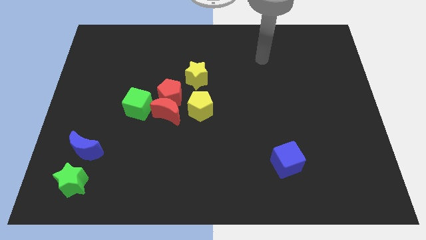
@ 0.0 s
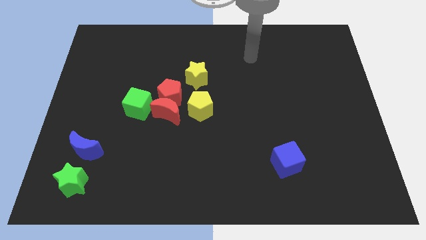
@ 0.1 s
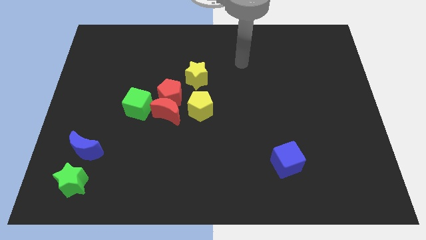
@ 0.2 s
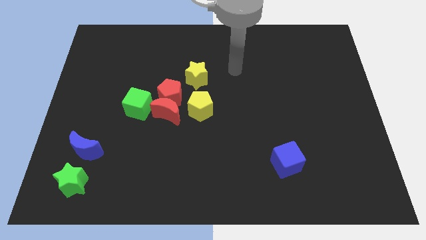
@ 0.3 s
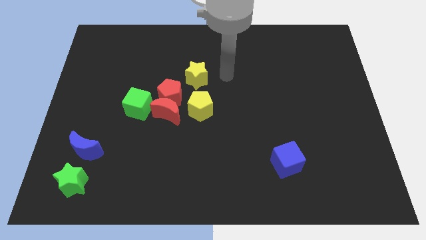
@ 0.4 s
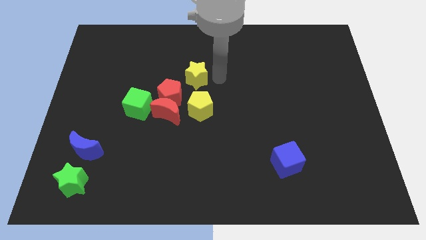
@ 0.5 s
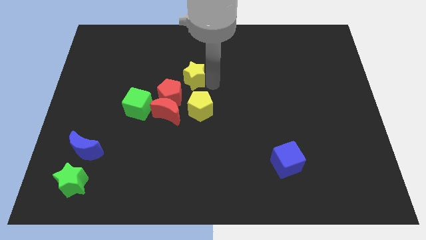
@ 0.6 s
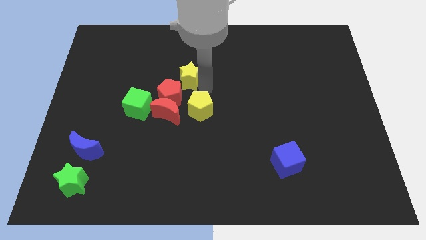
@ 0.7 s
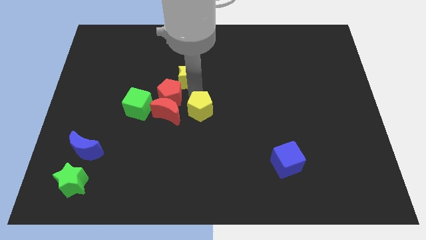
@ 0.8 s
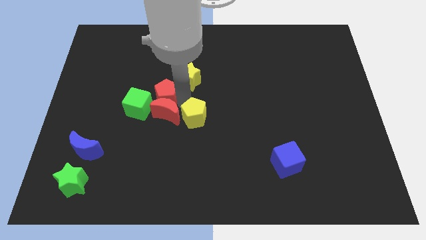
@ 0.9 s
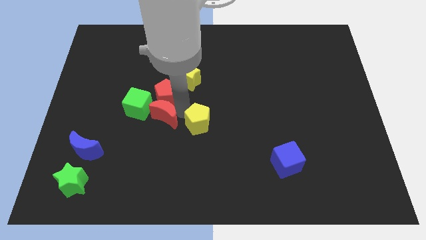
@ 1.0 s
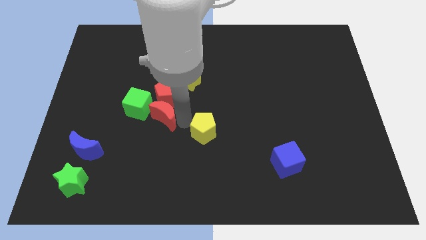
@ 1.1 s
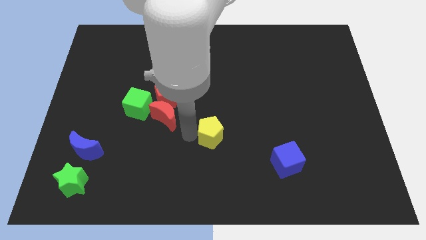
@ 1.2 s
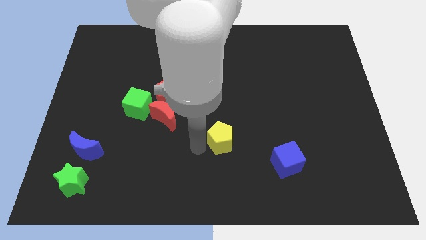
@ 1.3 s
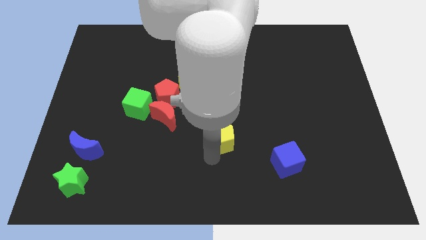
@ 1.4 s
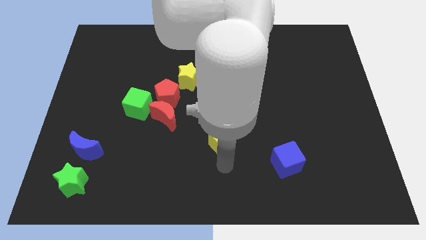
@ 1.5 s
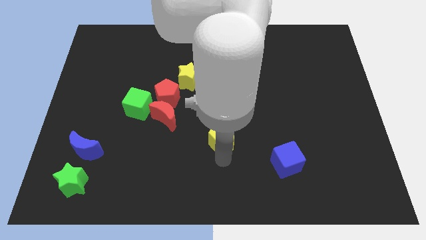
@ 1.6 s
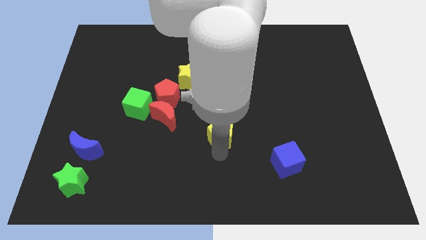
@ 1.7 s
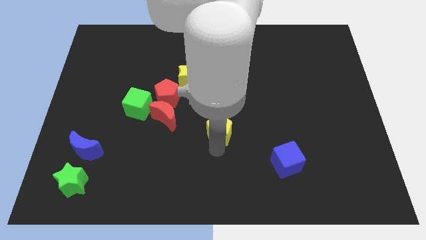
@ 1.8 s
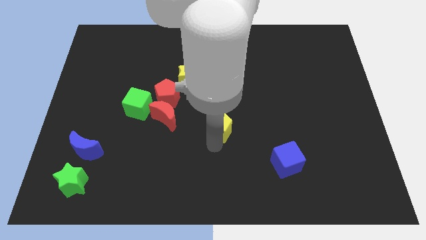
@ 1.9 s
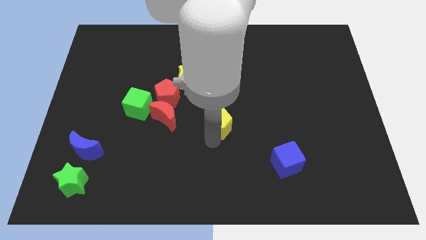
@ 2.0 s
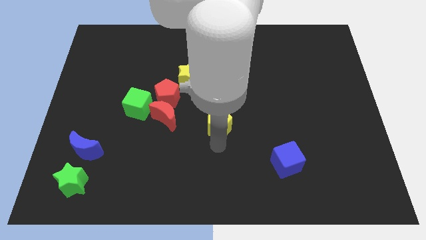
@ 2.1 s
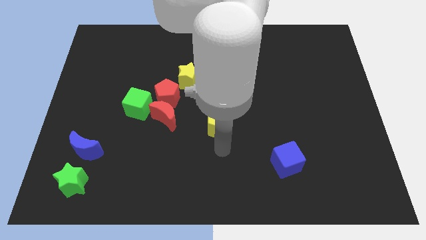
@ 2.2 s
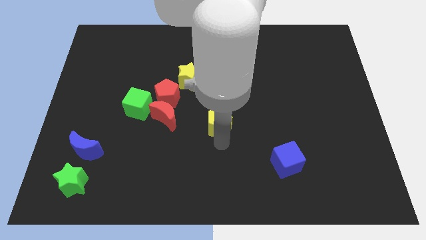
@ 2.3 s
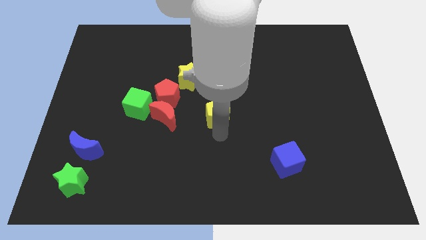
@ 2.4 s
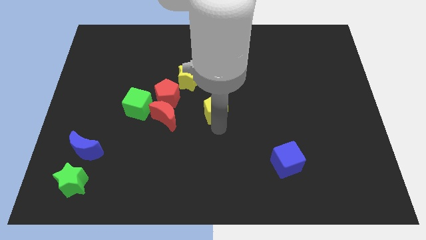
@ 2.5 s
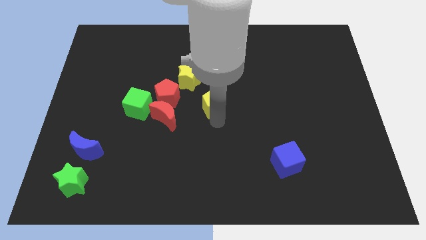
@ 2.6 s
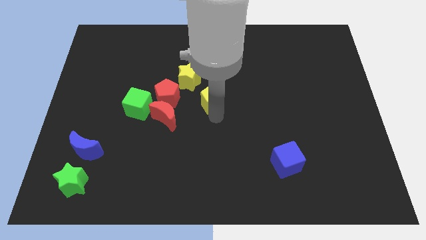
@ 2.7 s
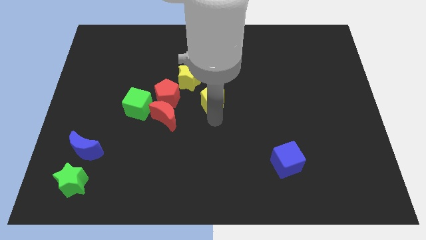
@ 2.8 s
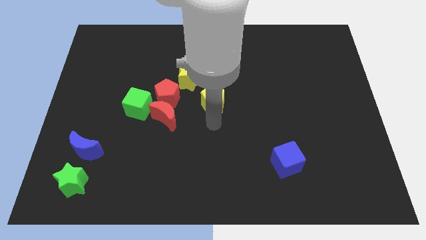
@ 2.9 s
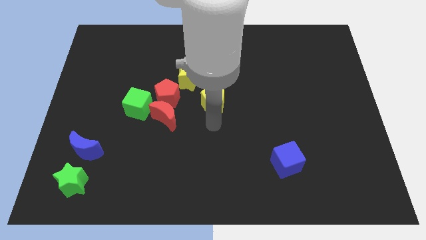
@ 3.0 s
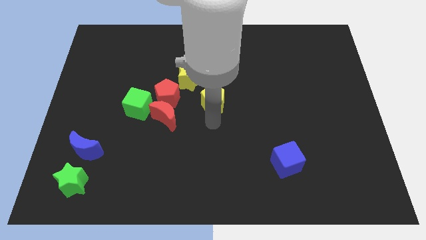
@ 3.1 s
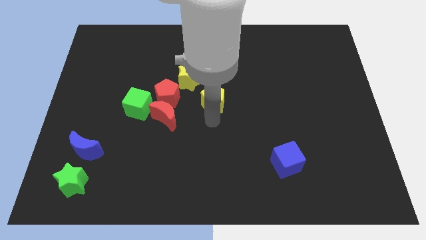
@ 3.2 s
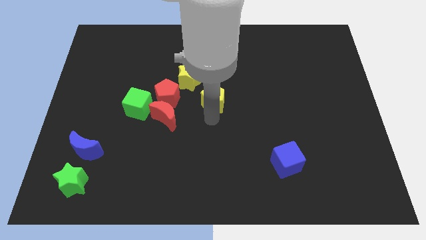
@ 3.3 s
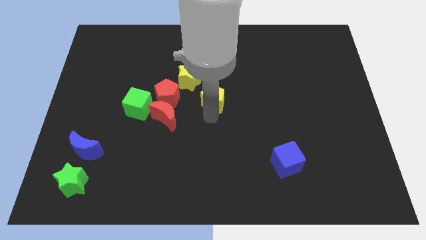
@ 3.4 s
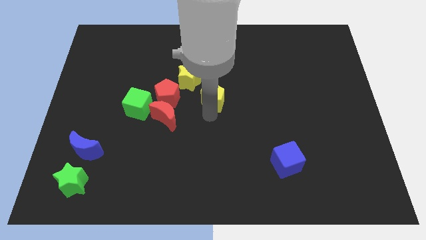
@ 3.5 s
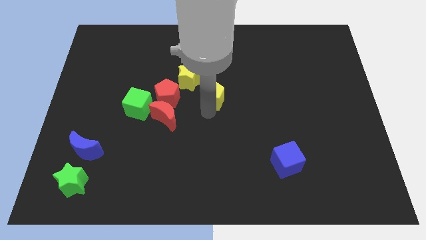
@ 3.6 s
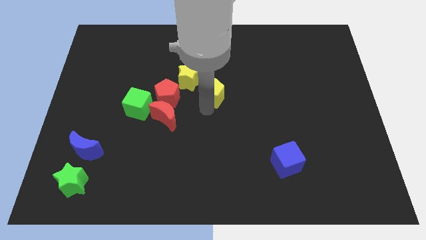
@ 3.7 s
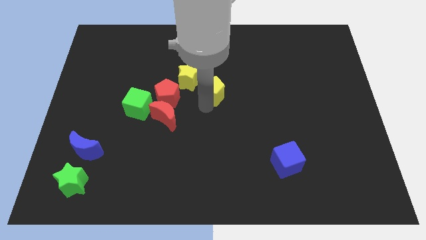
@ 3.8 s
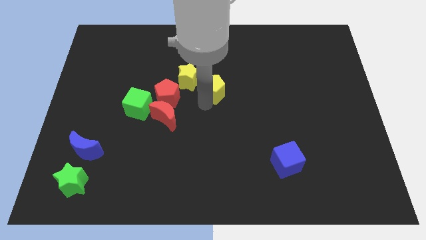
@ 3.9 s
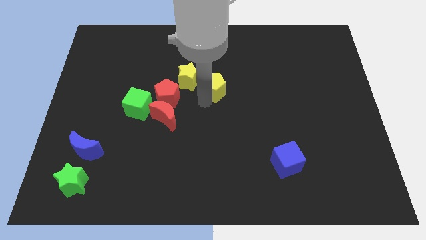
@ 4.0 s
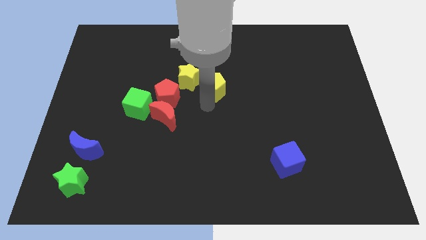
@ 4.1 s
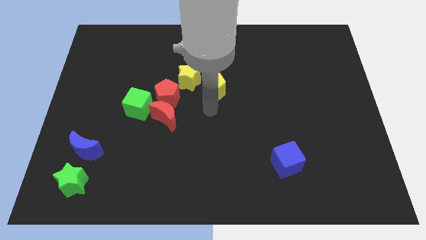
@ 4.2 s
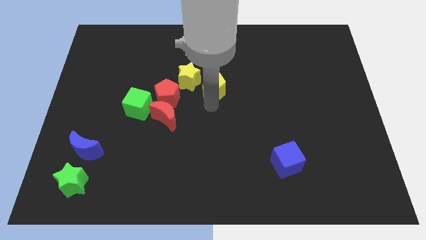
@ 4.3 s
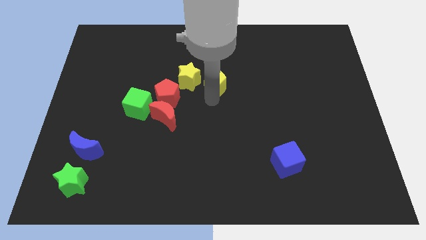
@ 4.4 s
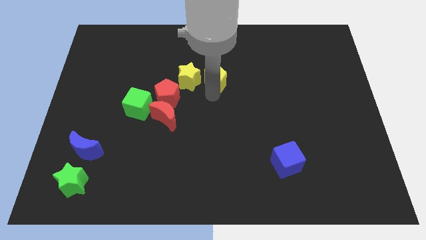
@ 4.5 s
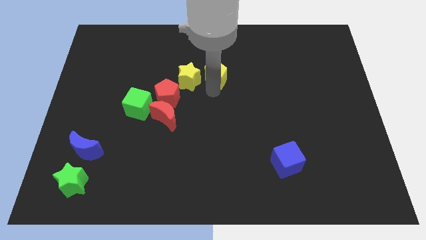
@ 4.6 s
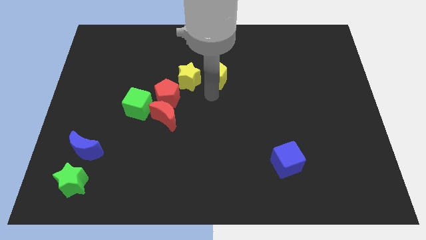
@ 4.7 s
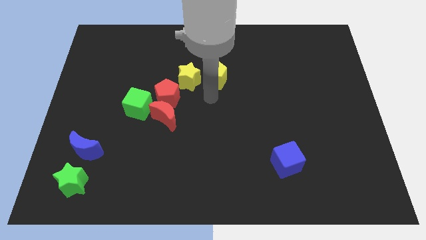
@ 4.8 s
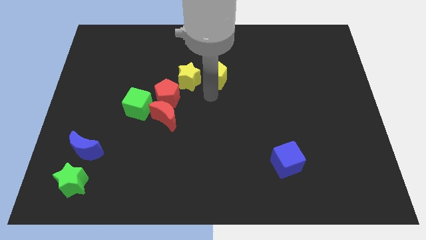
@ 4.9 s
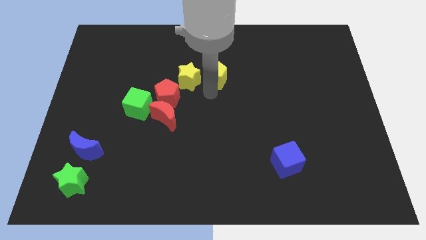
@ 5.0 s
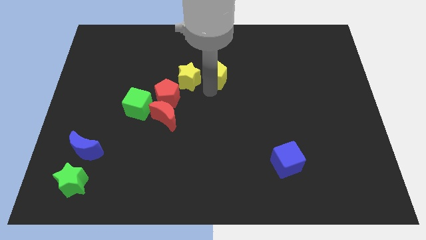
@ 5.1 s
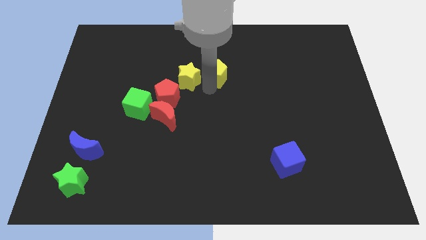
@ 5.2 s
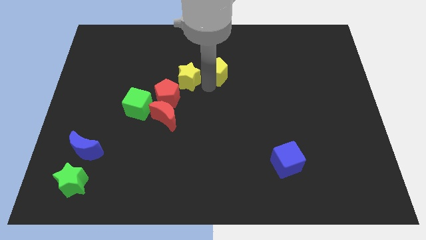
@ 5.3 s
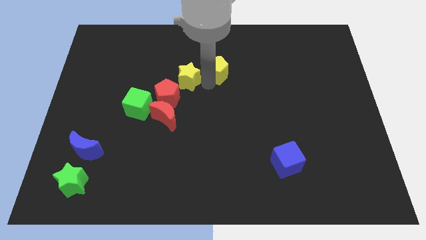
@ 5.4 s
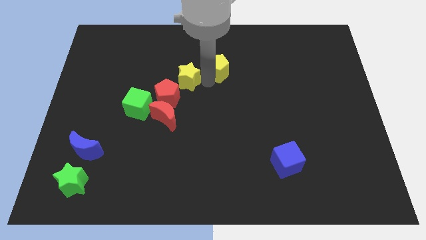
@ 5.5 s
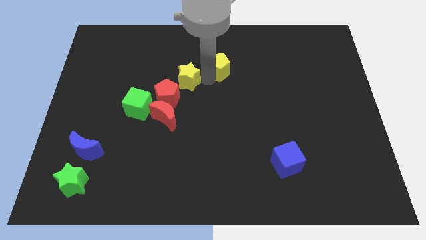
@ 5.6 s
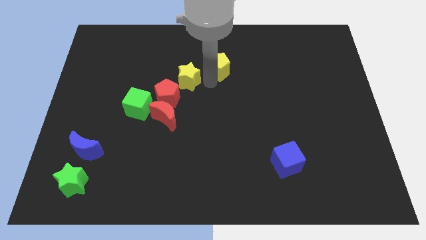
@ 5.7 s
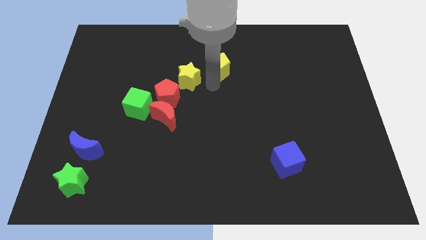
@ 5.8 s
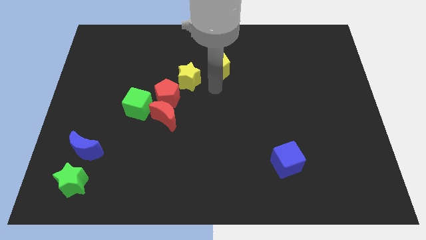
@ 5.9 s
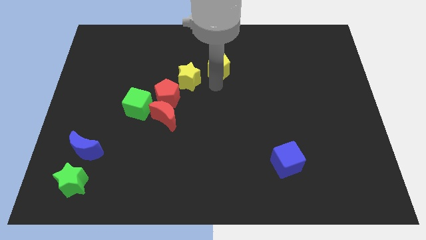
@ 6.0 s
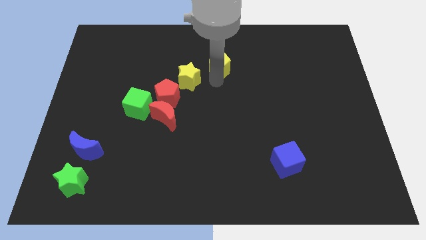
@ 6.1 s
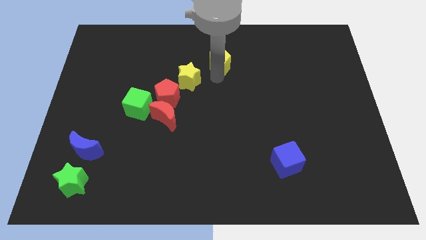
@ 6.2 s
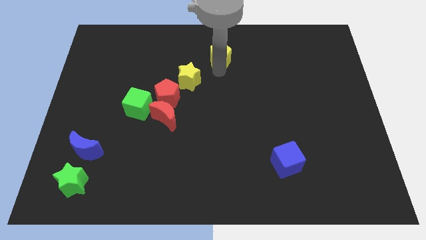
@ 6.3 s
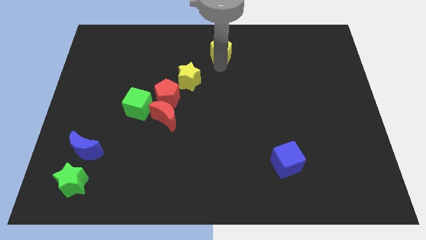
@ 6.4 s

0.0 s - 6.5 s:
put the yellow pentagon to the top
